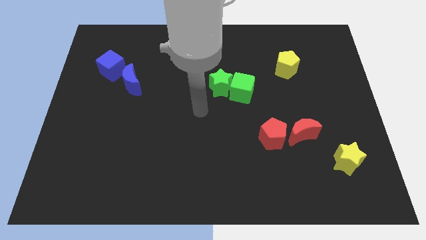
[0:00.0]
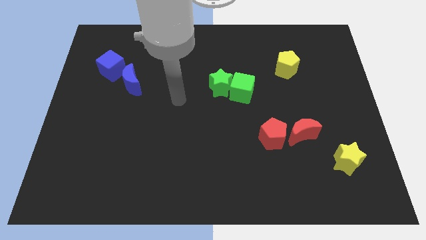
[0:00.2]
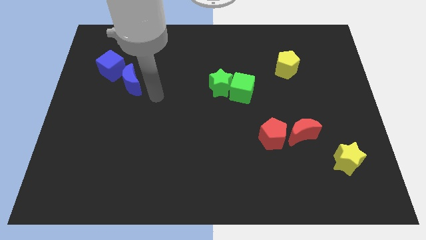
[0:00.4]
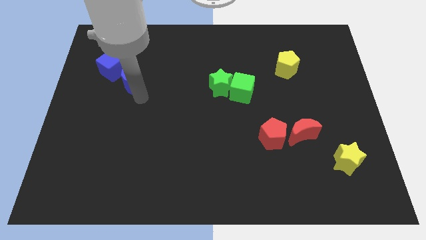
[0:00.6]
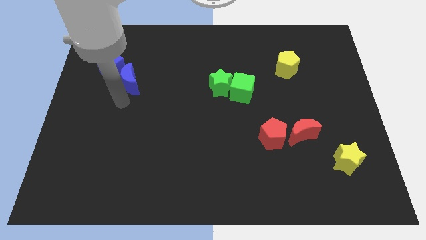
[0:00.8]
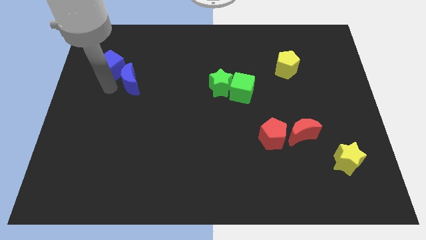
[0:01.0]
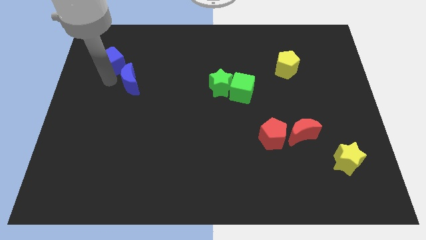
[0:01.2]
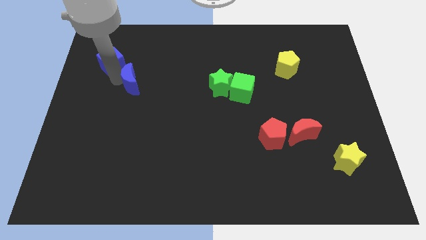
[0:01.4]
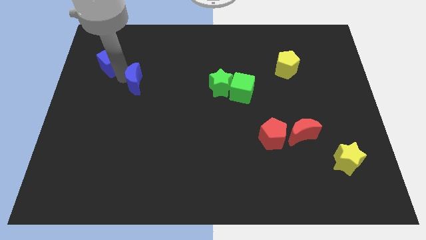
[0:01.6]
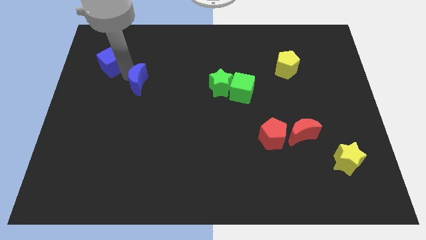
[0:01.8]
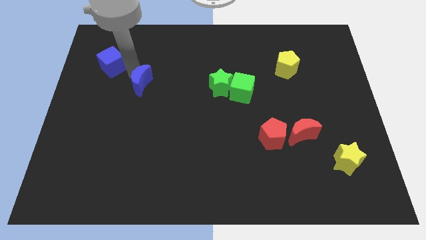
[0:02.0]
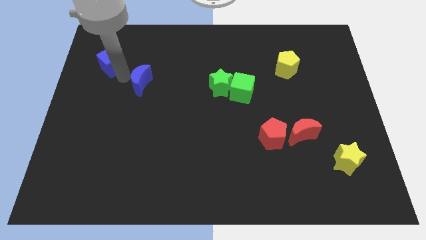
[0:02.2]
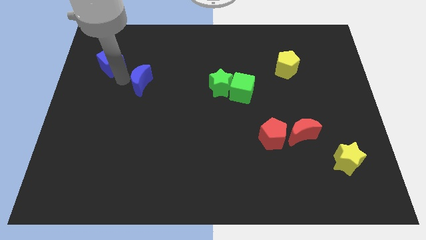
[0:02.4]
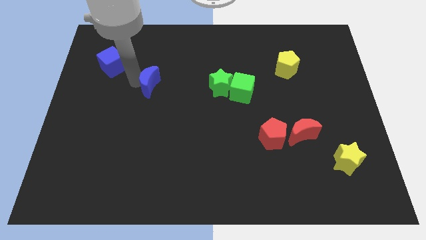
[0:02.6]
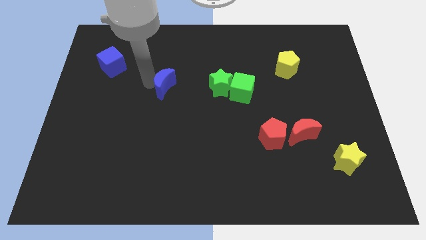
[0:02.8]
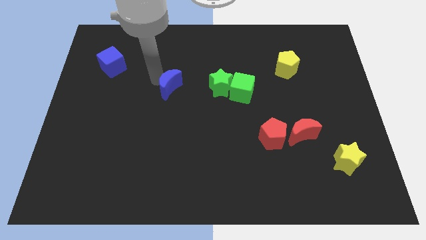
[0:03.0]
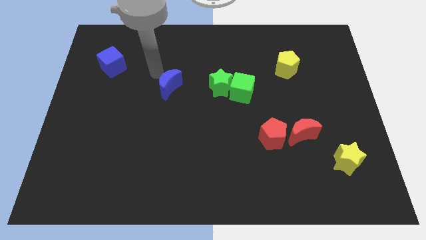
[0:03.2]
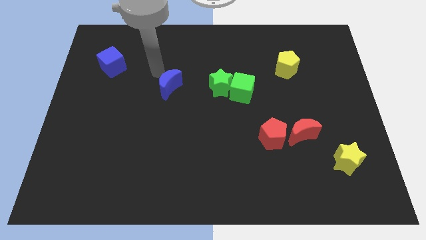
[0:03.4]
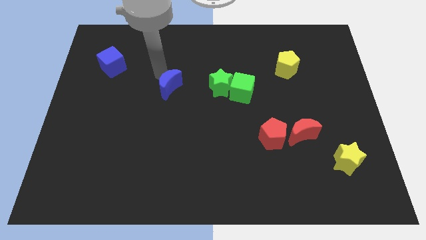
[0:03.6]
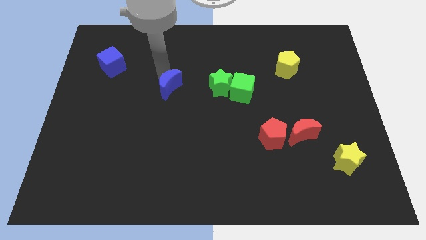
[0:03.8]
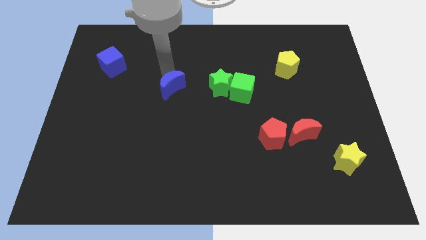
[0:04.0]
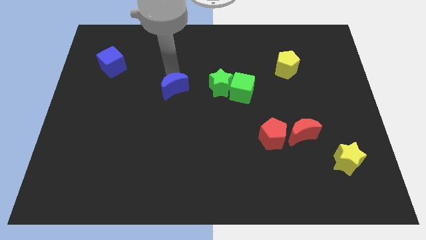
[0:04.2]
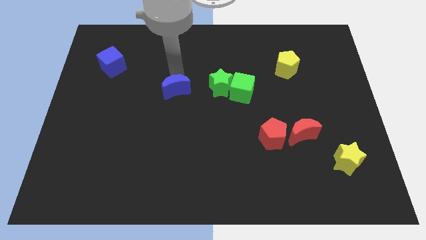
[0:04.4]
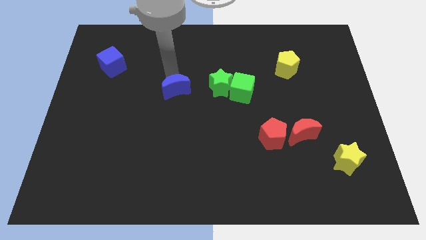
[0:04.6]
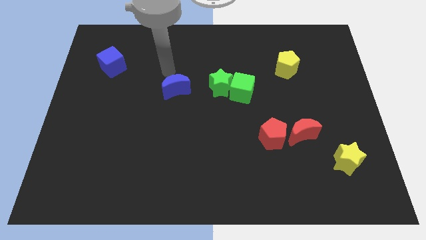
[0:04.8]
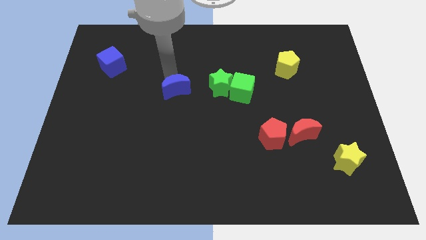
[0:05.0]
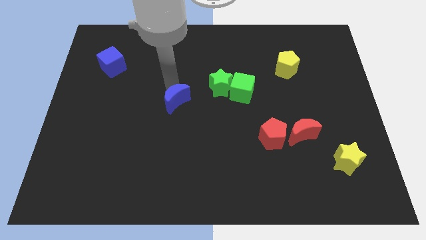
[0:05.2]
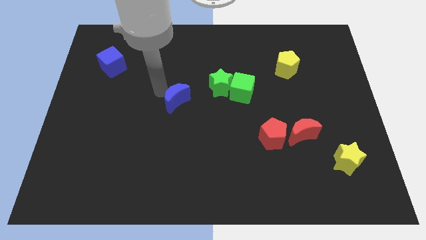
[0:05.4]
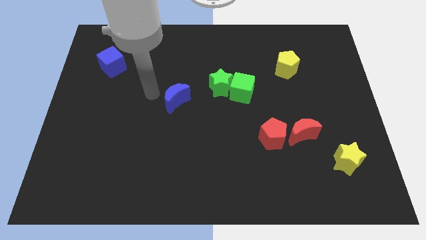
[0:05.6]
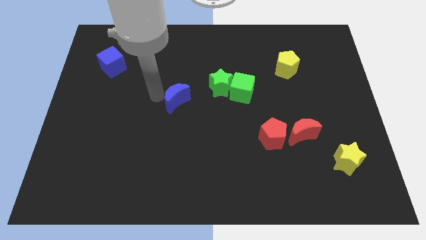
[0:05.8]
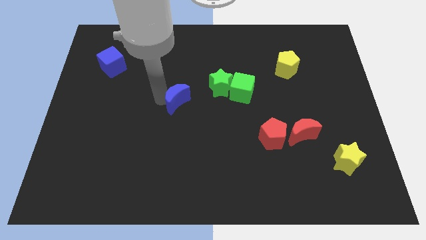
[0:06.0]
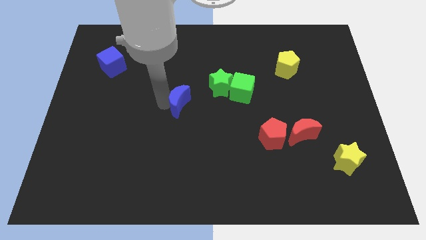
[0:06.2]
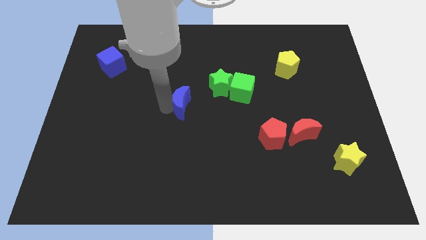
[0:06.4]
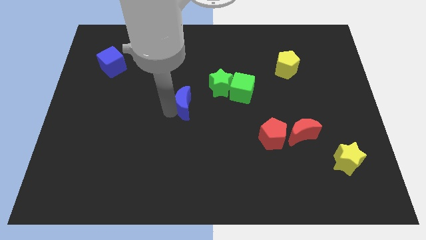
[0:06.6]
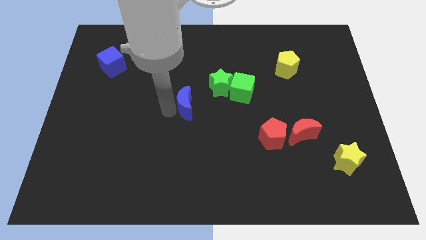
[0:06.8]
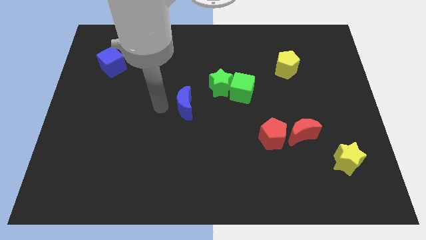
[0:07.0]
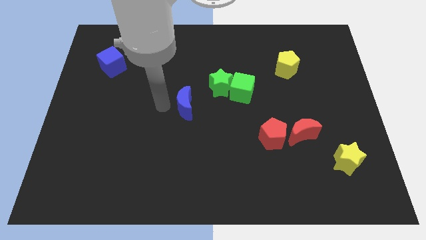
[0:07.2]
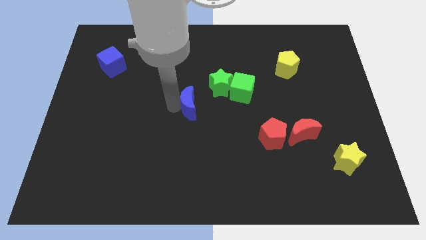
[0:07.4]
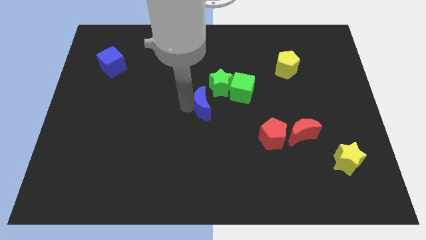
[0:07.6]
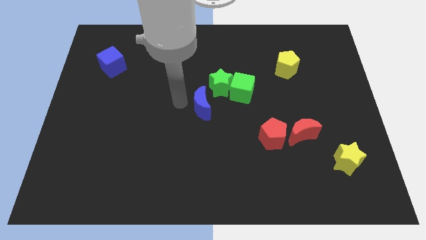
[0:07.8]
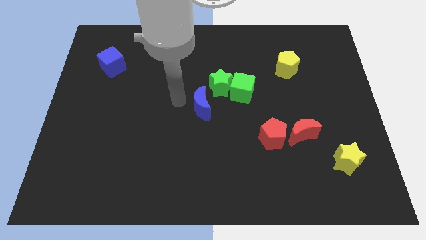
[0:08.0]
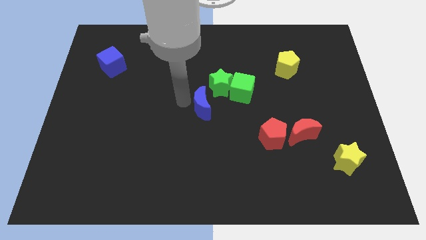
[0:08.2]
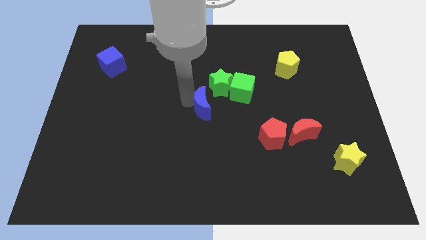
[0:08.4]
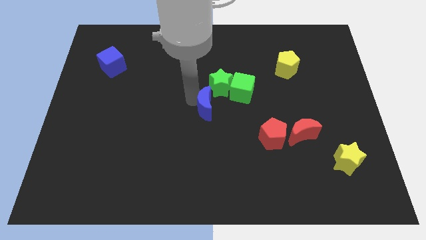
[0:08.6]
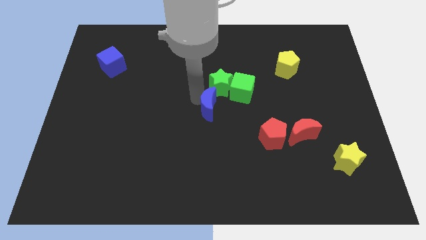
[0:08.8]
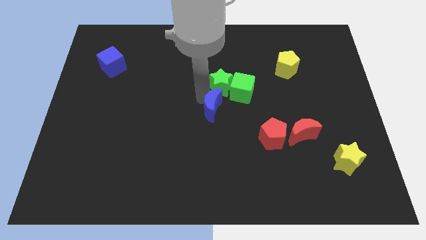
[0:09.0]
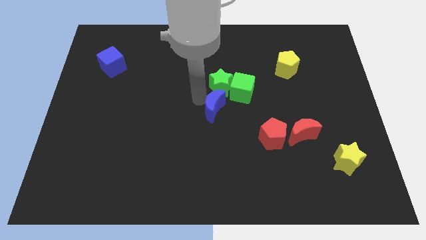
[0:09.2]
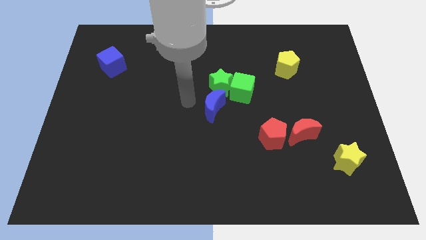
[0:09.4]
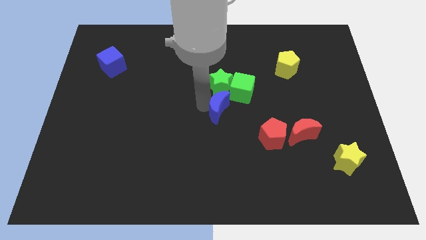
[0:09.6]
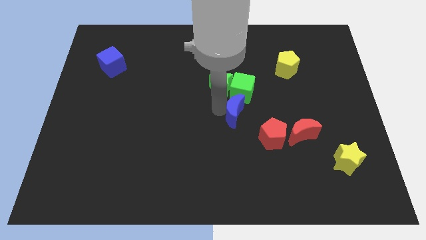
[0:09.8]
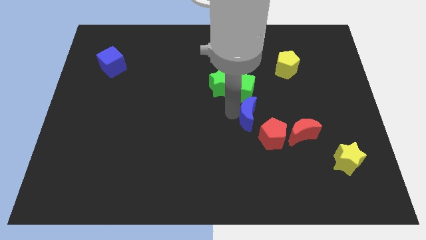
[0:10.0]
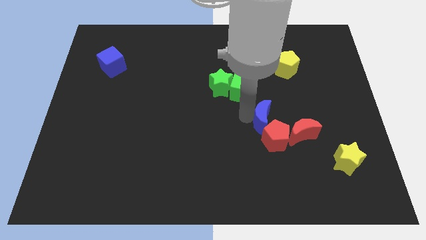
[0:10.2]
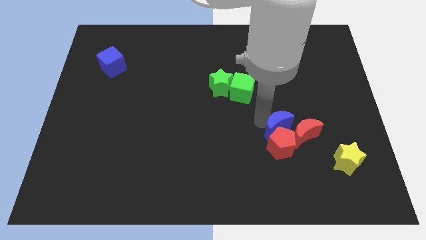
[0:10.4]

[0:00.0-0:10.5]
put the blue moon to the red moon
